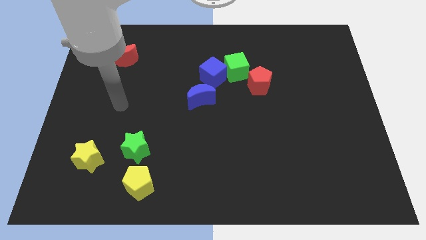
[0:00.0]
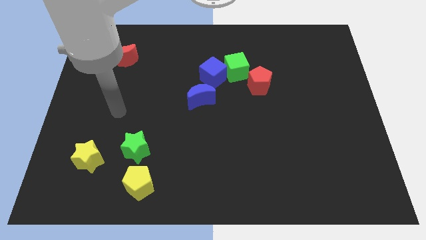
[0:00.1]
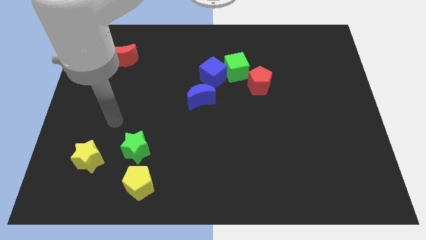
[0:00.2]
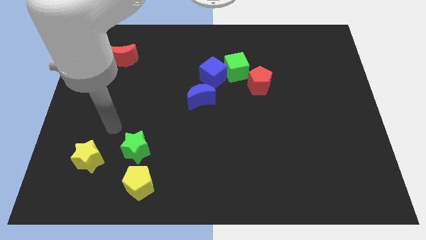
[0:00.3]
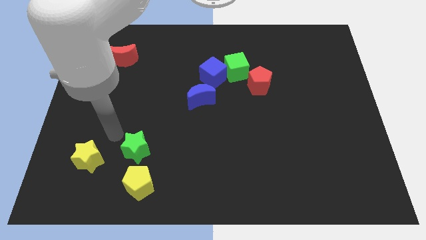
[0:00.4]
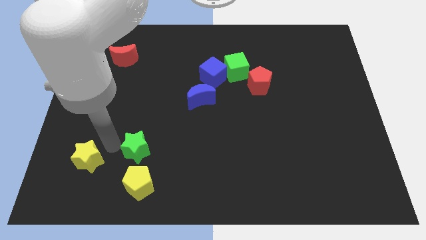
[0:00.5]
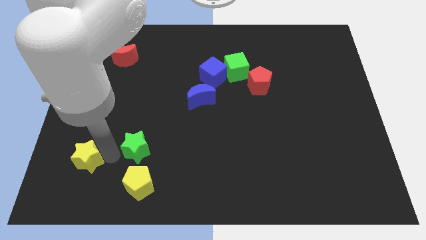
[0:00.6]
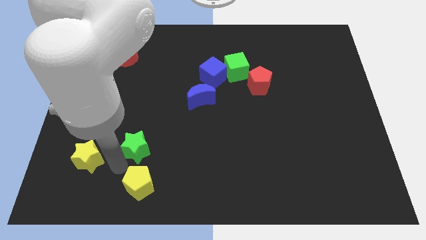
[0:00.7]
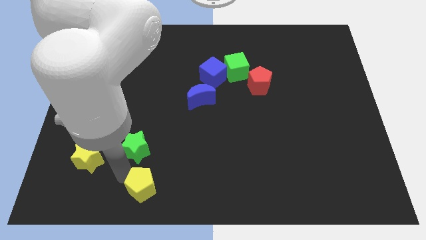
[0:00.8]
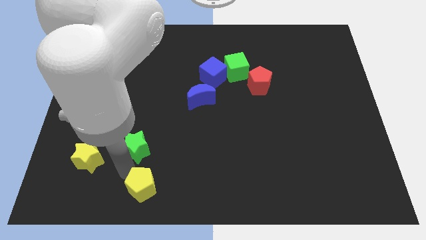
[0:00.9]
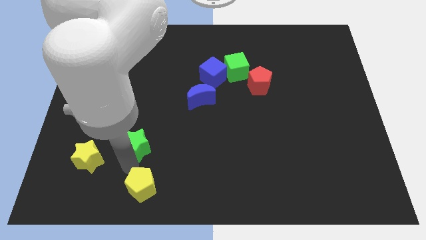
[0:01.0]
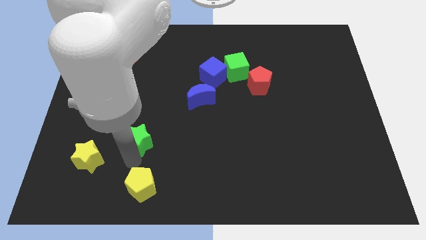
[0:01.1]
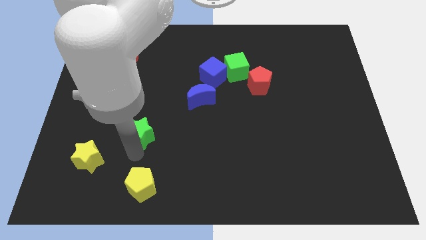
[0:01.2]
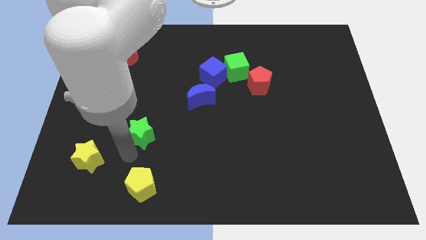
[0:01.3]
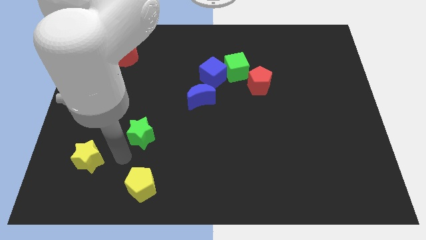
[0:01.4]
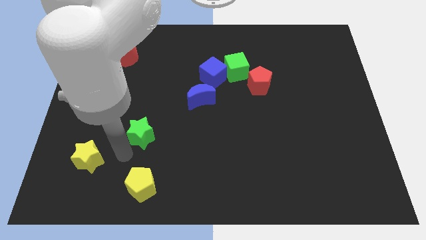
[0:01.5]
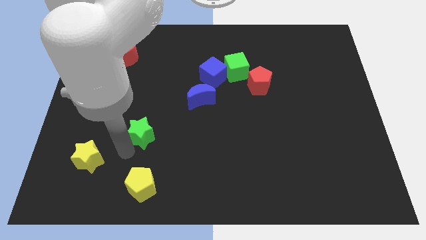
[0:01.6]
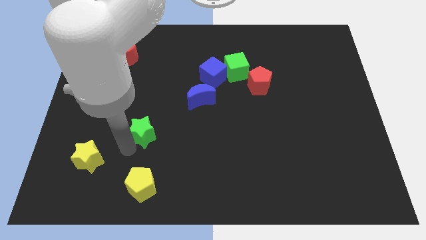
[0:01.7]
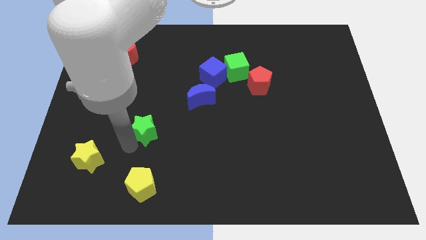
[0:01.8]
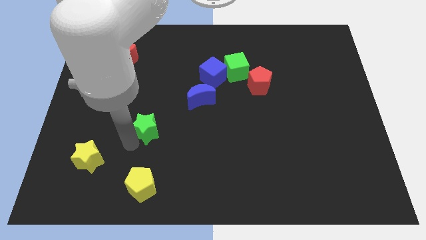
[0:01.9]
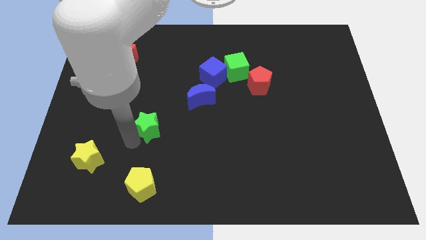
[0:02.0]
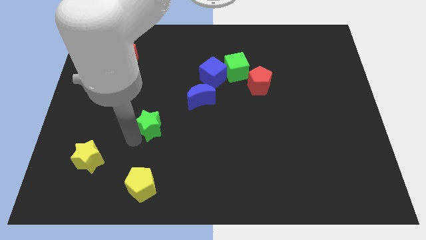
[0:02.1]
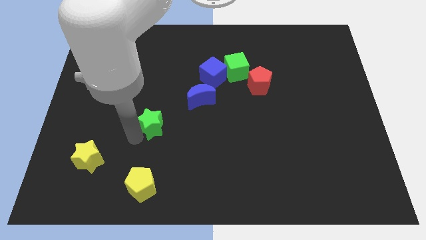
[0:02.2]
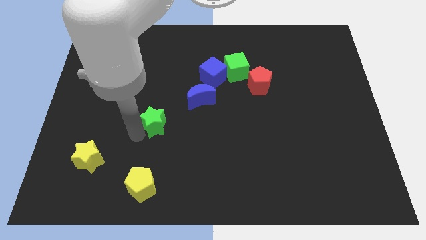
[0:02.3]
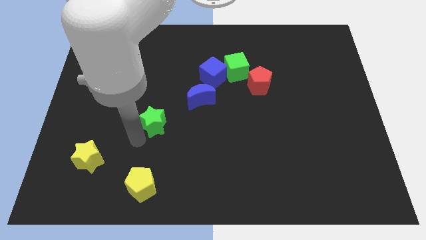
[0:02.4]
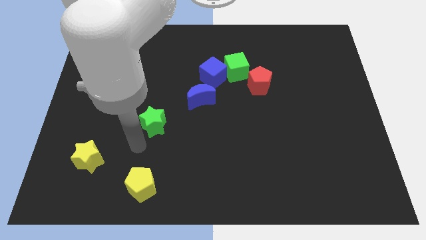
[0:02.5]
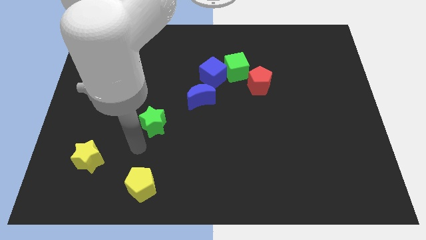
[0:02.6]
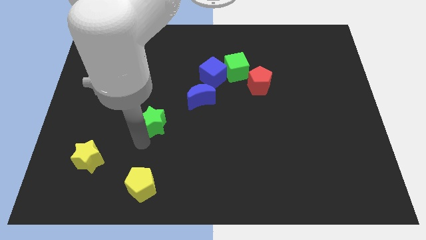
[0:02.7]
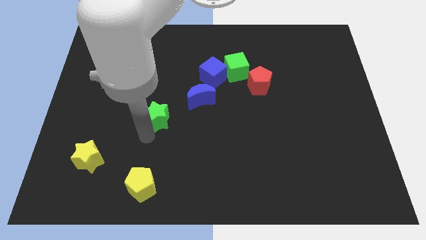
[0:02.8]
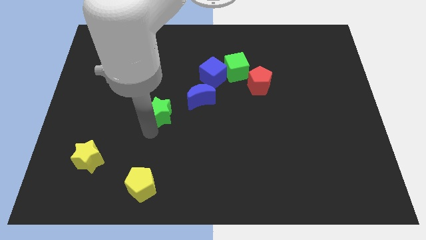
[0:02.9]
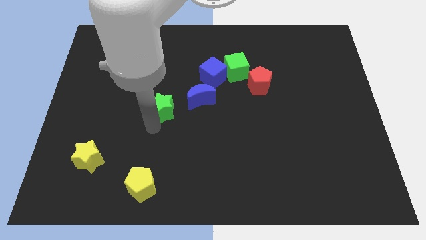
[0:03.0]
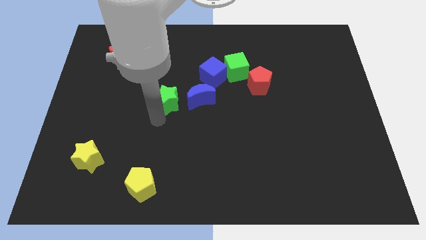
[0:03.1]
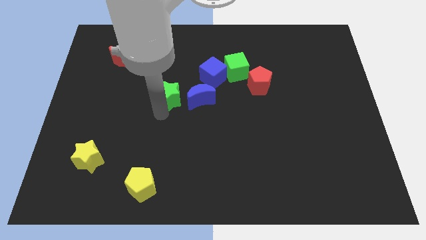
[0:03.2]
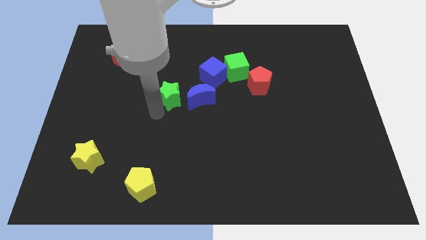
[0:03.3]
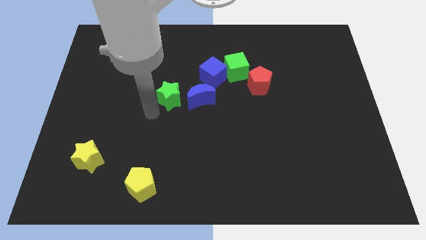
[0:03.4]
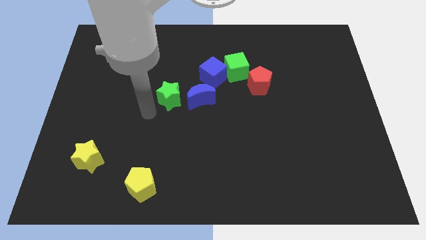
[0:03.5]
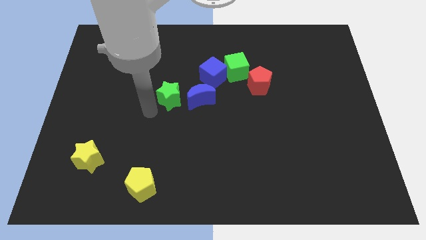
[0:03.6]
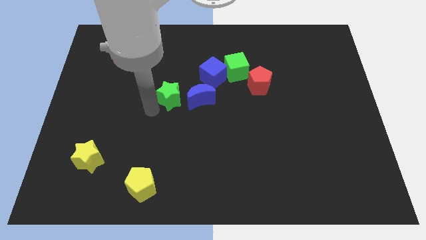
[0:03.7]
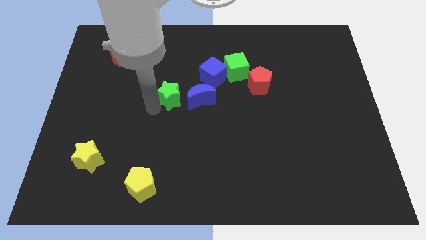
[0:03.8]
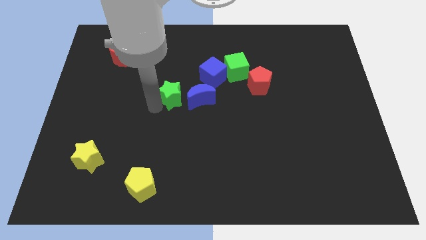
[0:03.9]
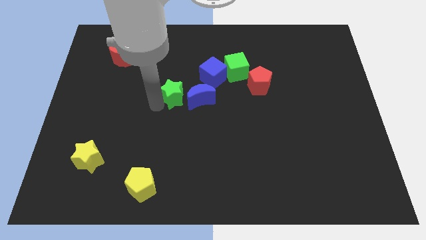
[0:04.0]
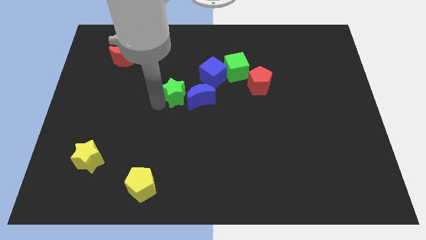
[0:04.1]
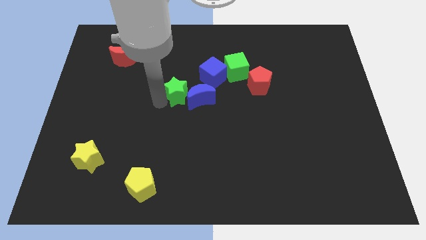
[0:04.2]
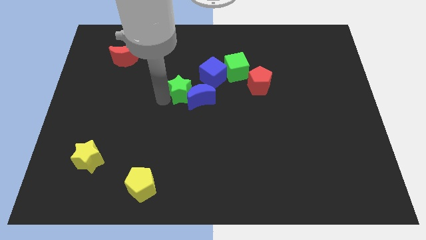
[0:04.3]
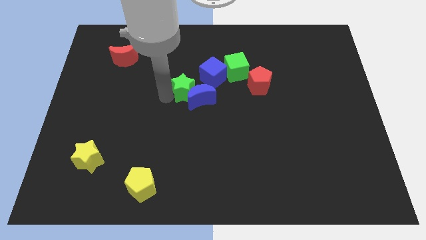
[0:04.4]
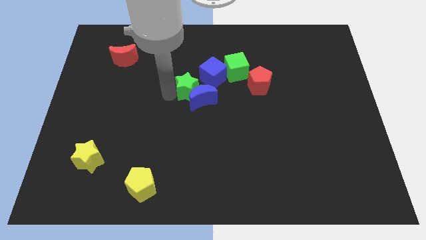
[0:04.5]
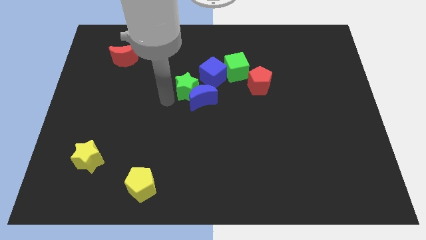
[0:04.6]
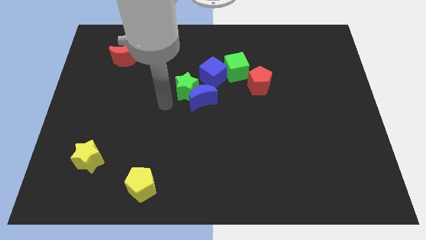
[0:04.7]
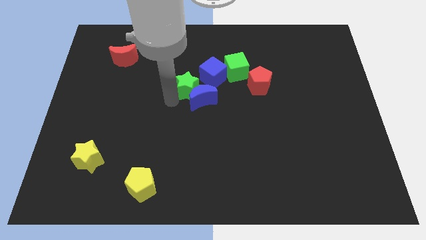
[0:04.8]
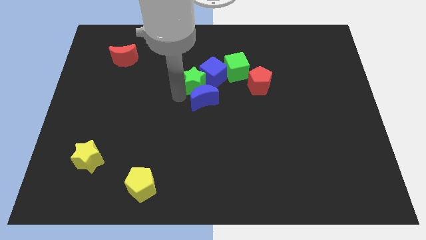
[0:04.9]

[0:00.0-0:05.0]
slide the green star towards the blue cube

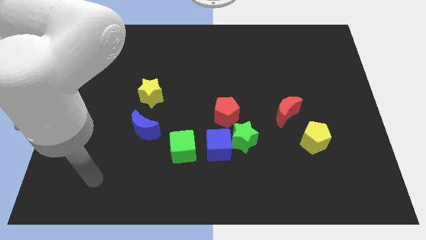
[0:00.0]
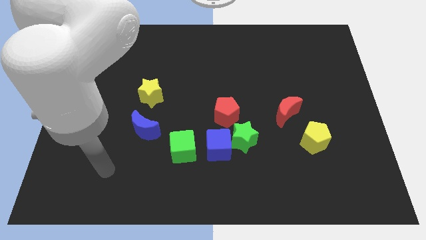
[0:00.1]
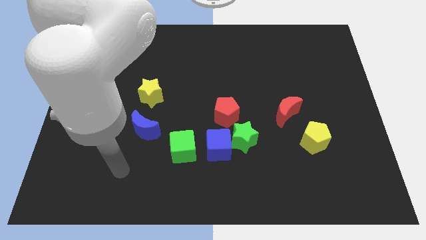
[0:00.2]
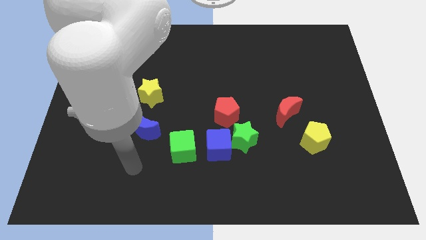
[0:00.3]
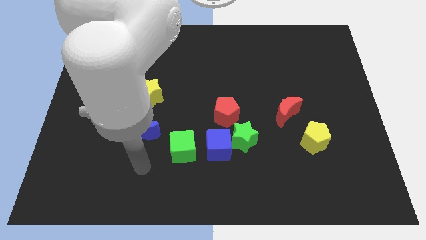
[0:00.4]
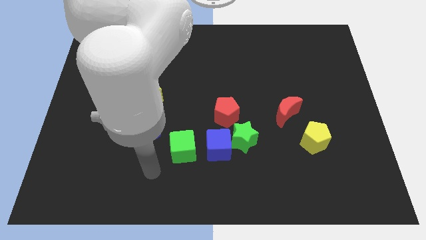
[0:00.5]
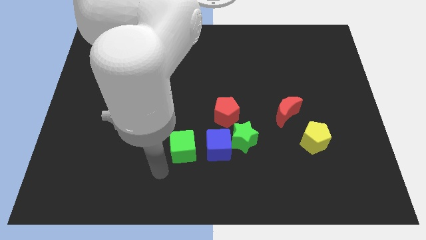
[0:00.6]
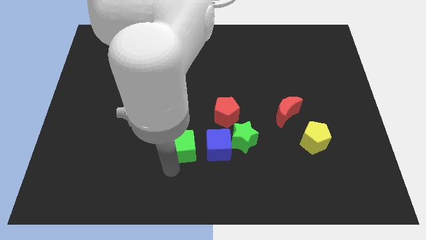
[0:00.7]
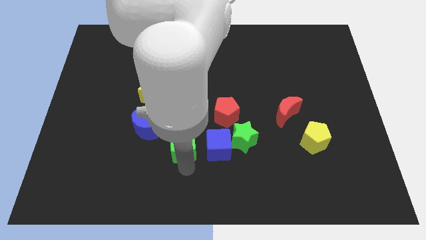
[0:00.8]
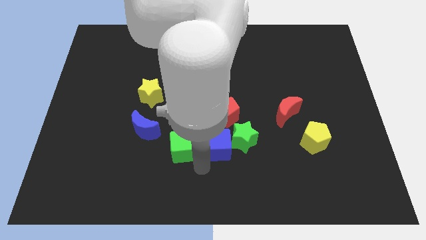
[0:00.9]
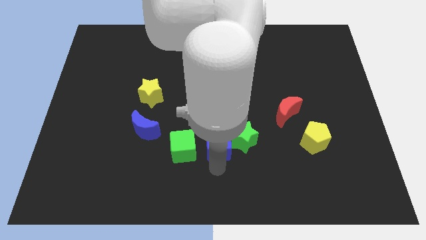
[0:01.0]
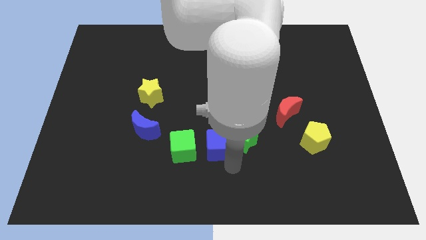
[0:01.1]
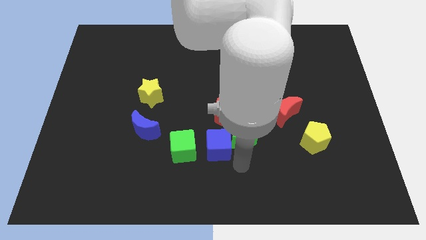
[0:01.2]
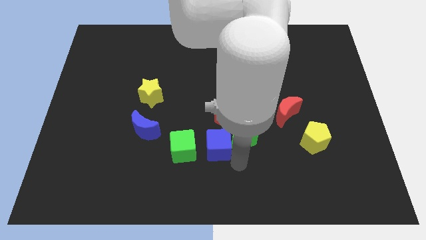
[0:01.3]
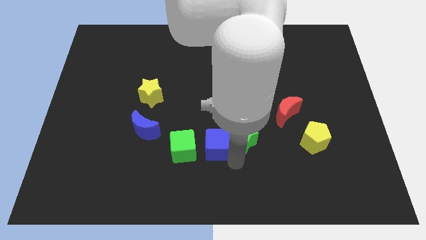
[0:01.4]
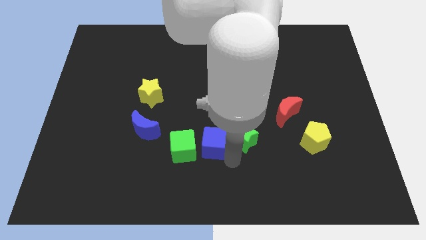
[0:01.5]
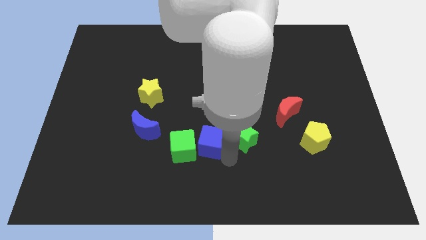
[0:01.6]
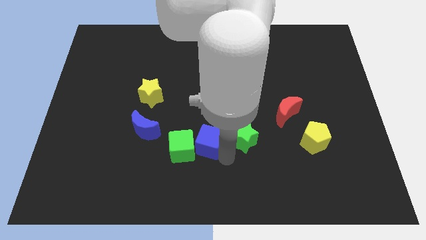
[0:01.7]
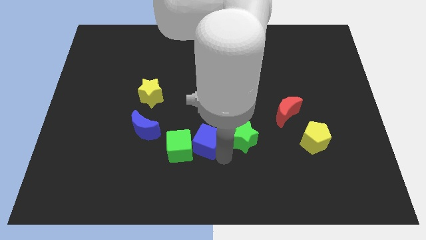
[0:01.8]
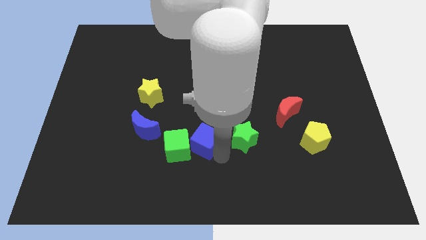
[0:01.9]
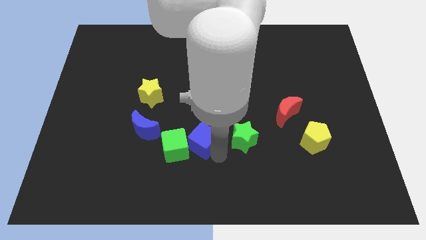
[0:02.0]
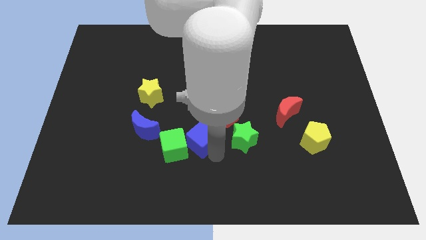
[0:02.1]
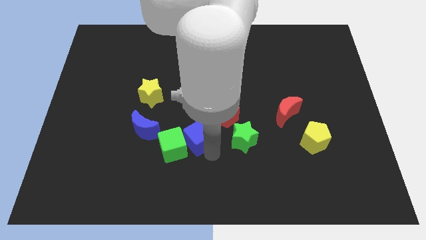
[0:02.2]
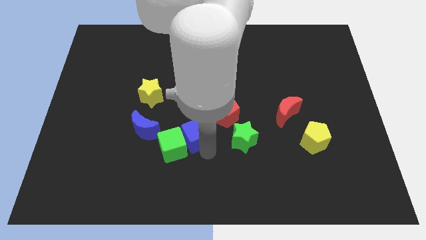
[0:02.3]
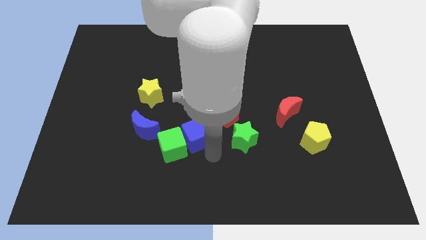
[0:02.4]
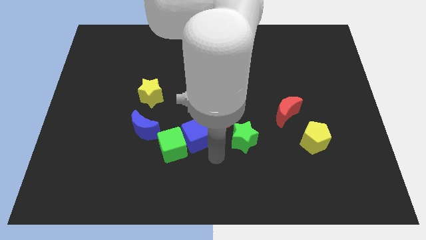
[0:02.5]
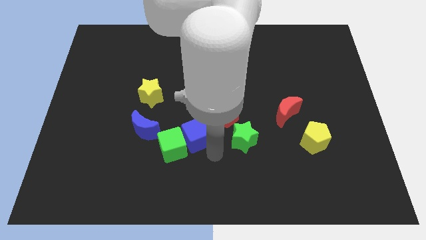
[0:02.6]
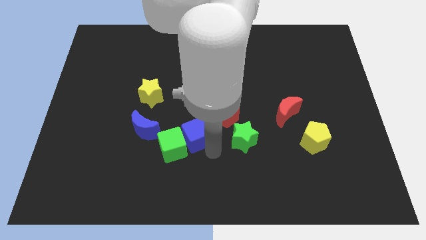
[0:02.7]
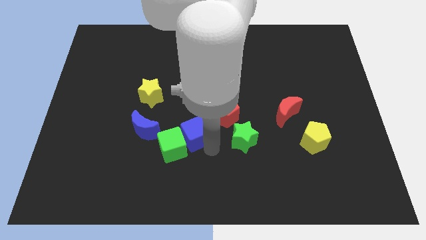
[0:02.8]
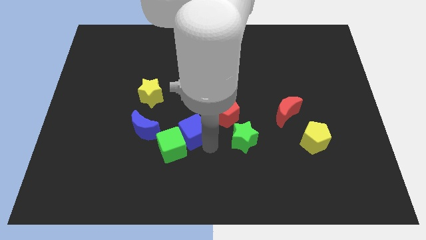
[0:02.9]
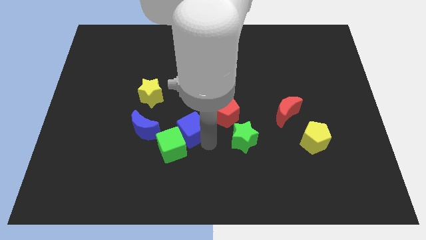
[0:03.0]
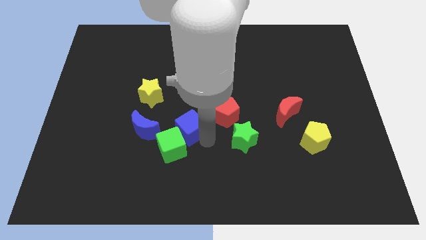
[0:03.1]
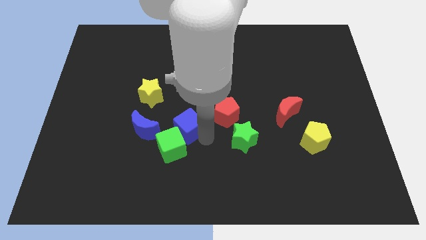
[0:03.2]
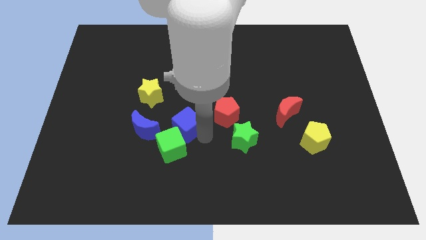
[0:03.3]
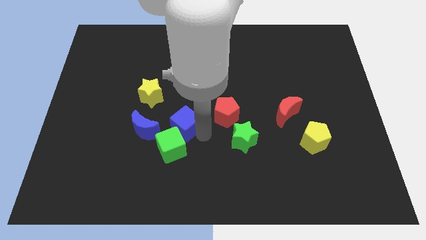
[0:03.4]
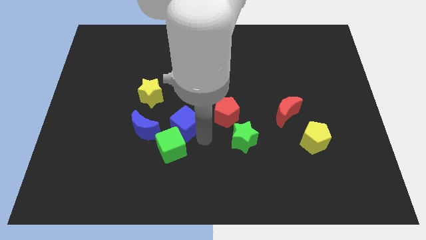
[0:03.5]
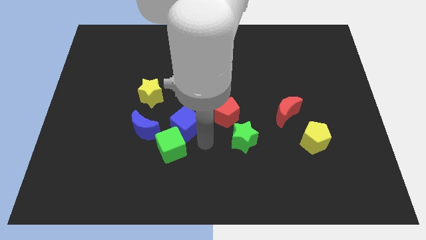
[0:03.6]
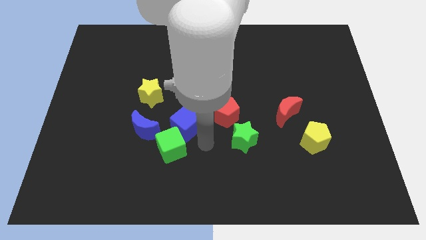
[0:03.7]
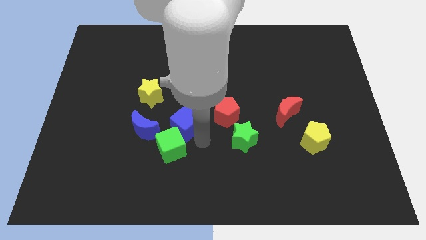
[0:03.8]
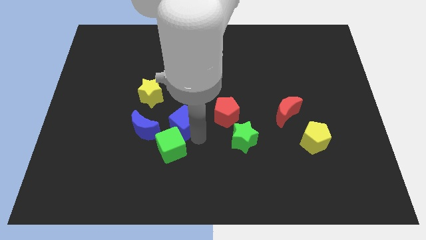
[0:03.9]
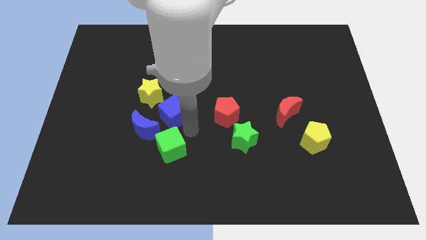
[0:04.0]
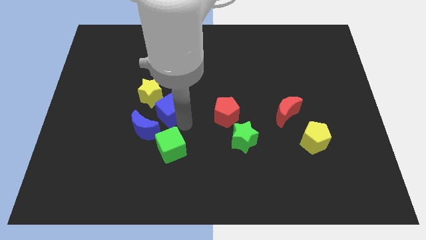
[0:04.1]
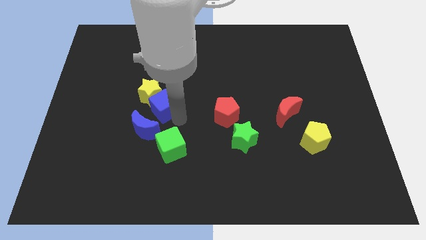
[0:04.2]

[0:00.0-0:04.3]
slide the blue cube next to the yellow star
